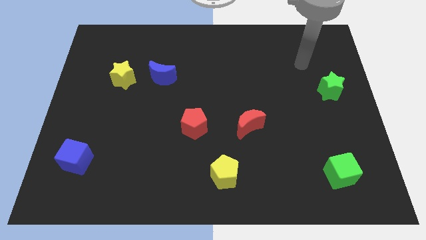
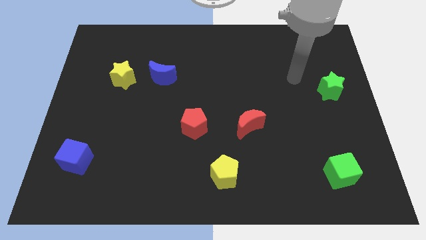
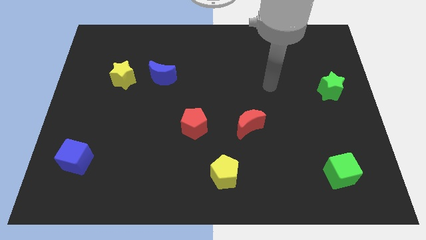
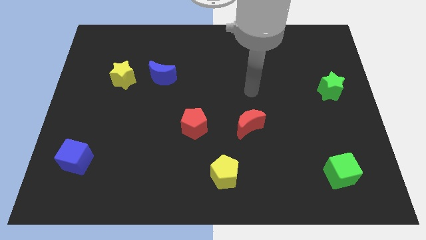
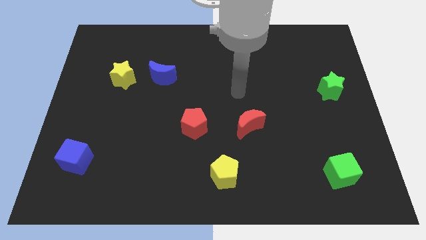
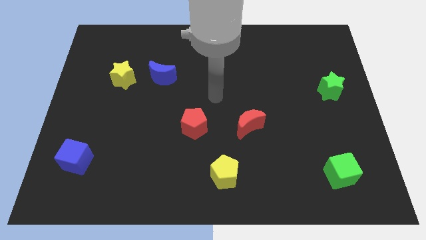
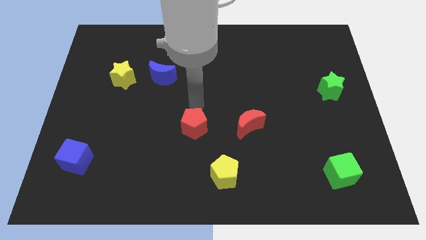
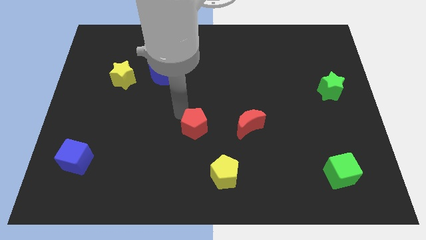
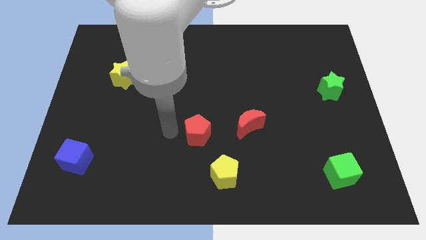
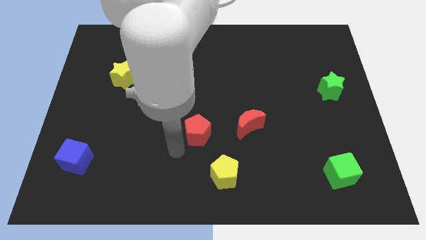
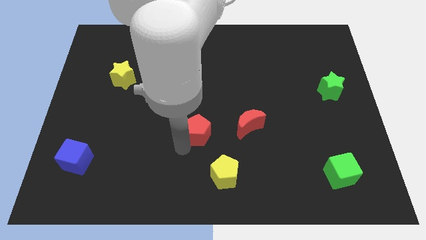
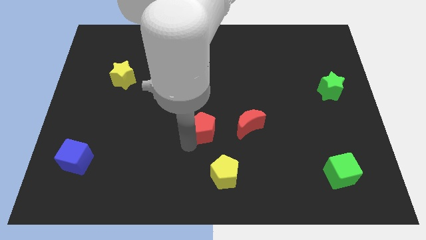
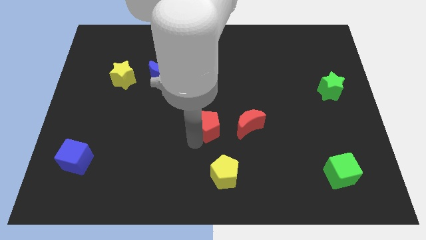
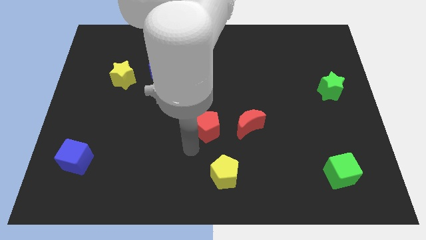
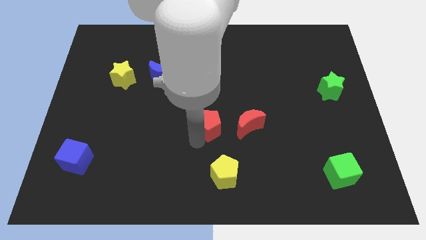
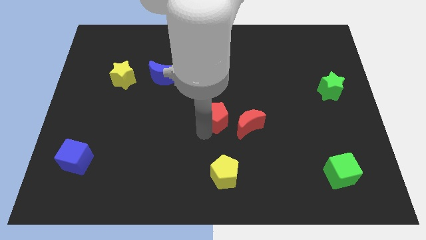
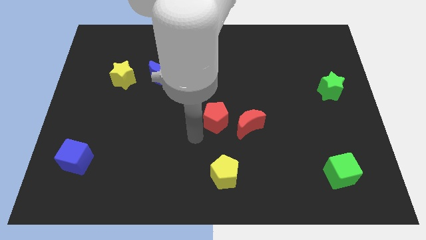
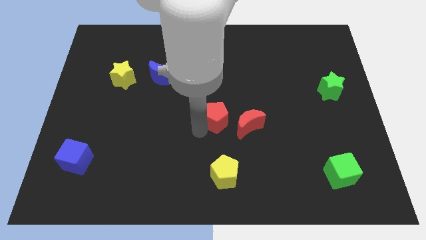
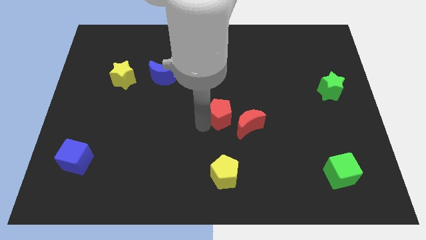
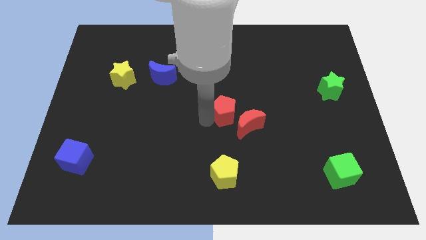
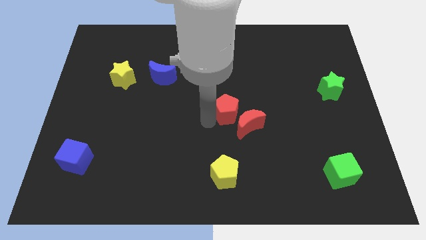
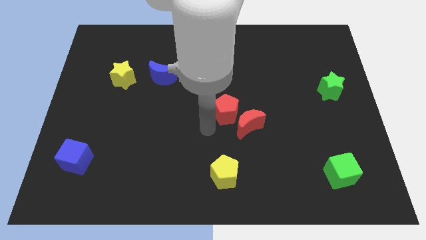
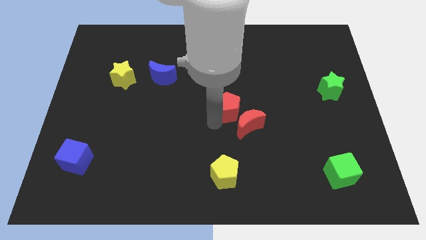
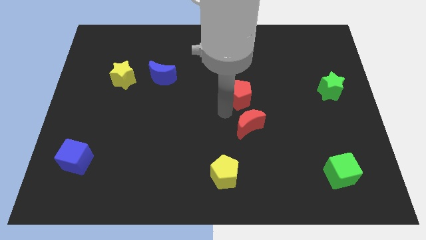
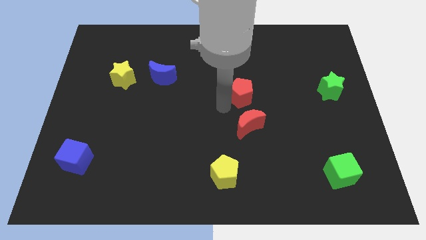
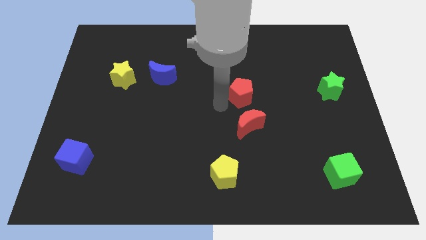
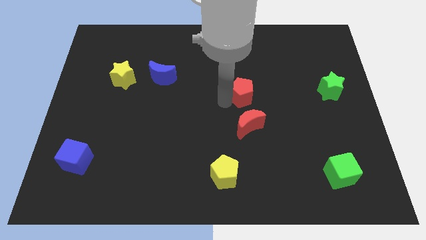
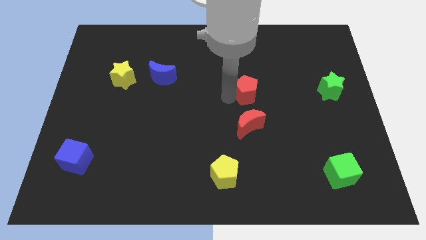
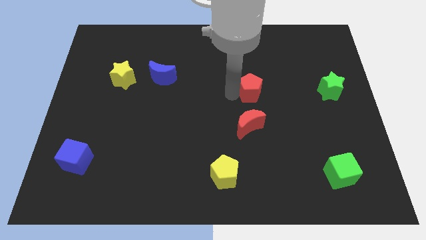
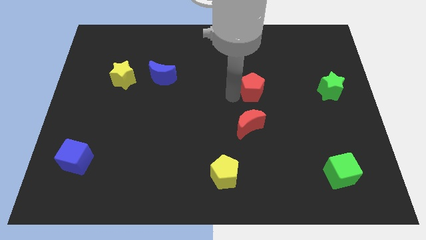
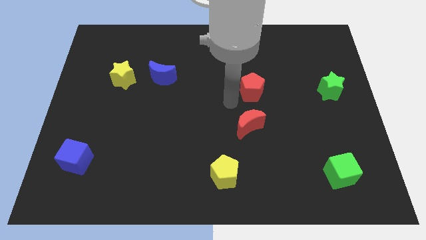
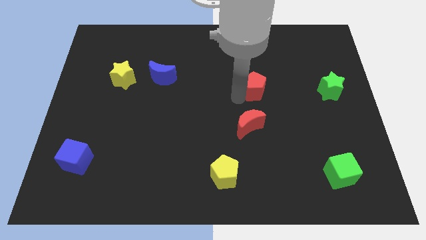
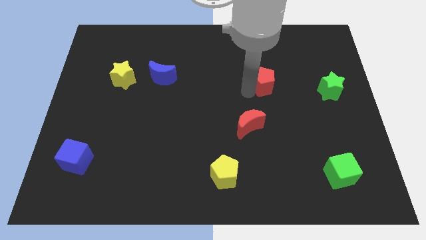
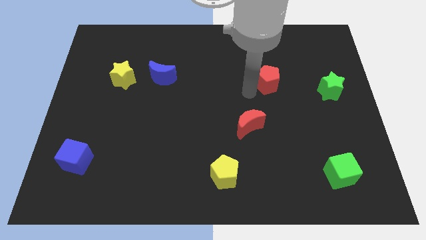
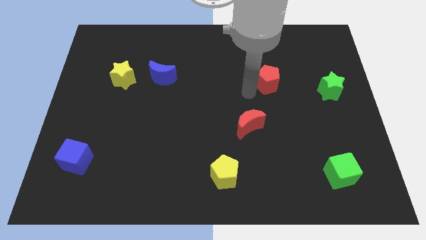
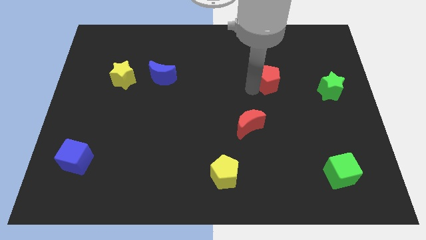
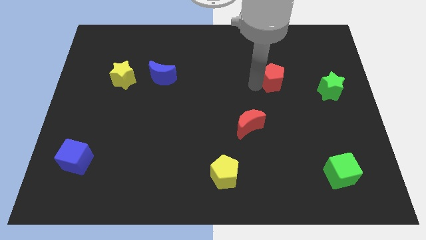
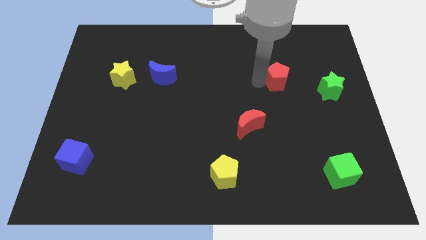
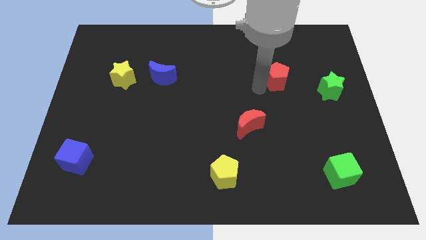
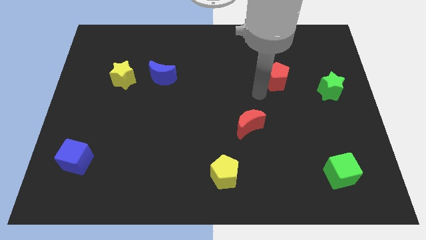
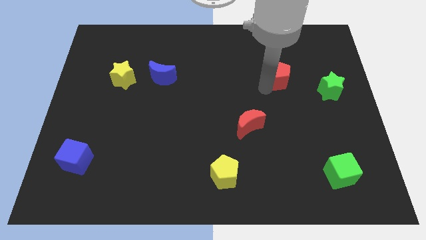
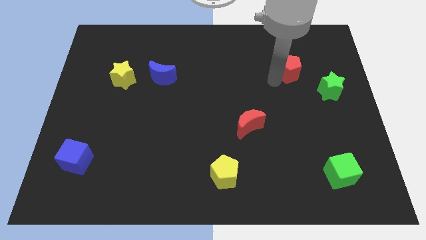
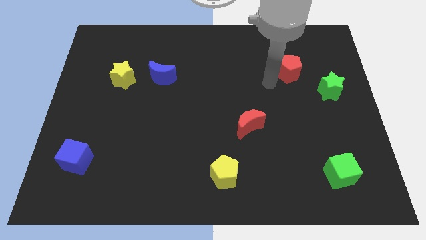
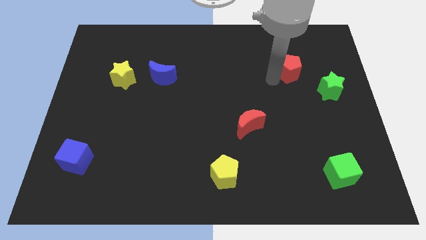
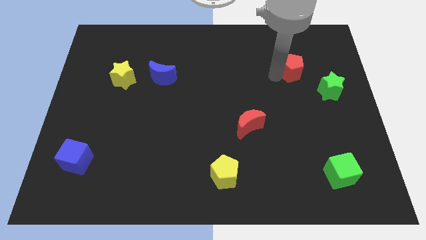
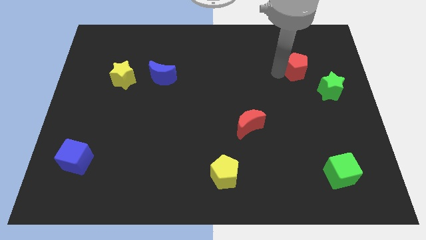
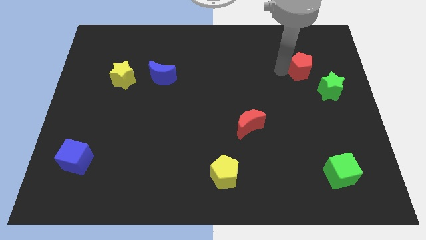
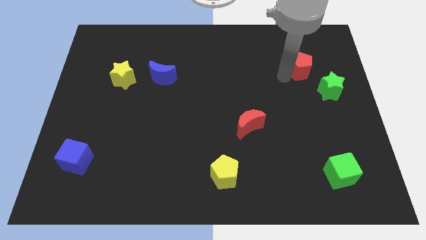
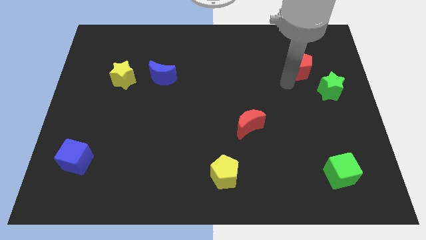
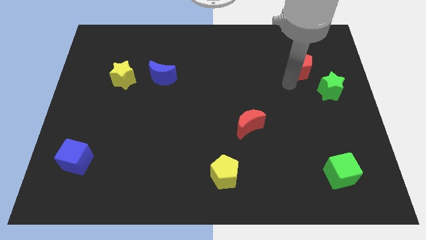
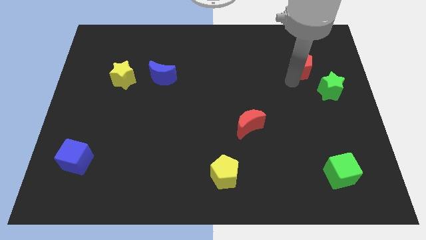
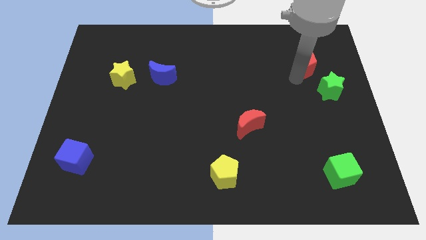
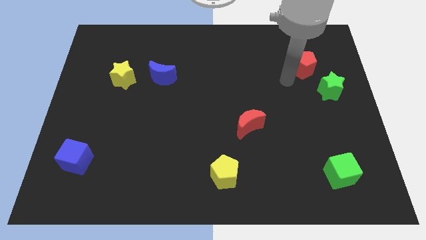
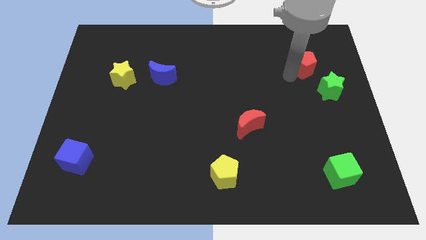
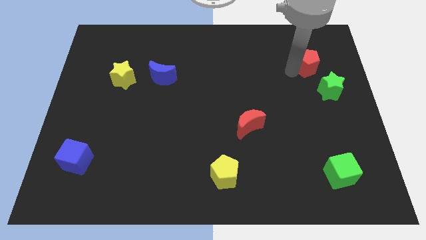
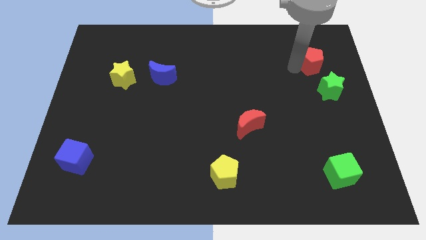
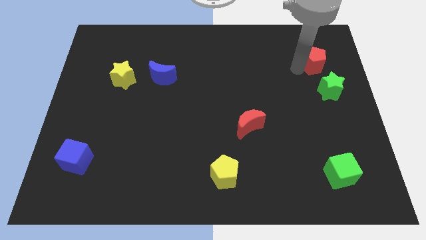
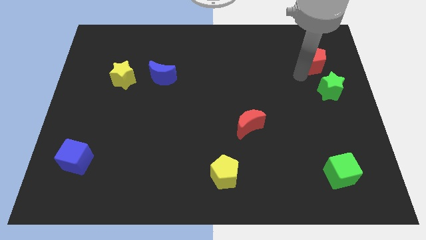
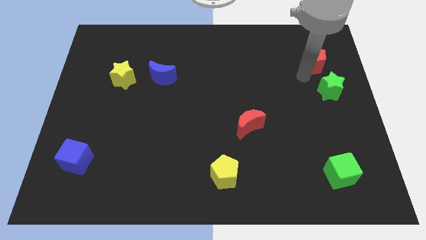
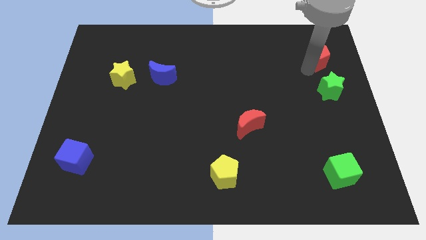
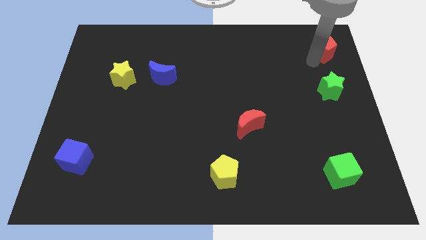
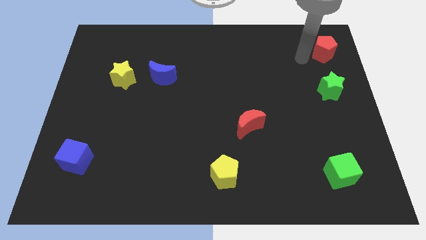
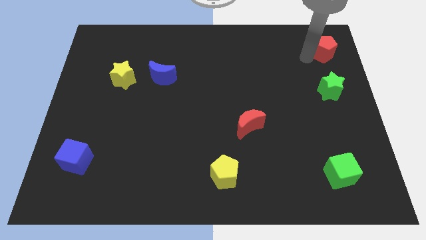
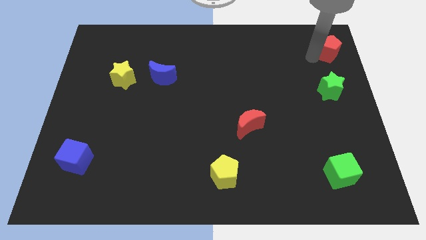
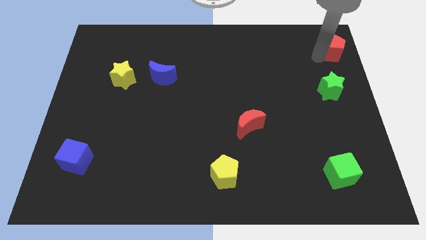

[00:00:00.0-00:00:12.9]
push the red pentagon to the top right of the board

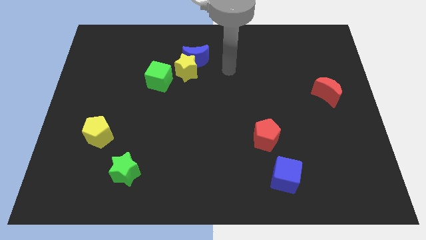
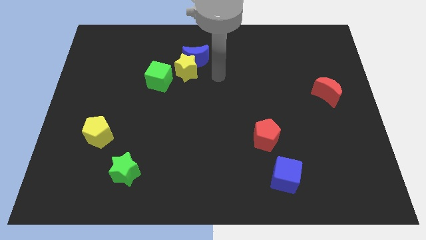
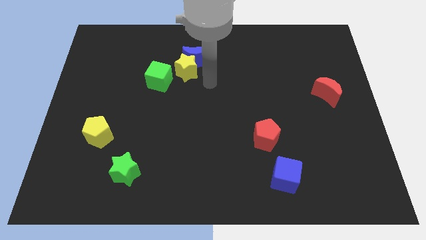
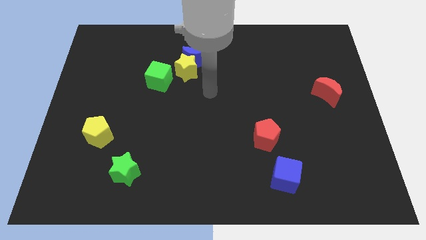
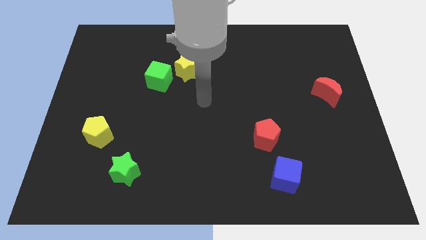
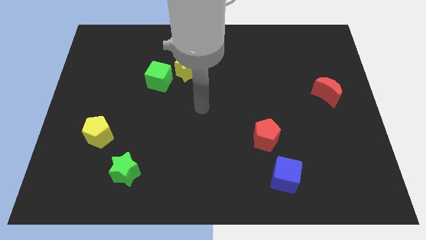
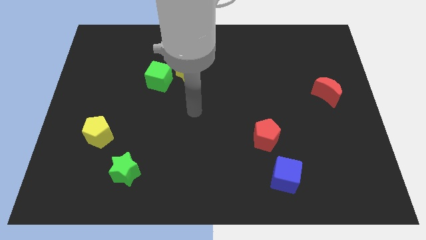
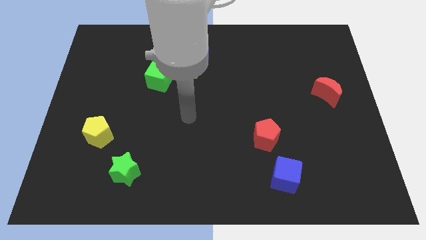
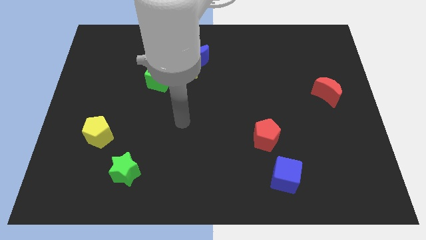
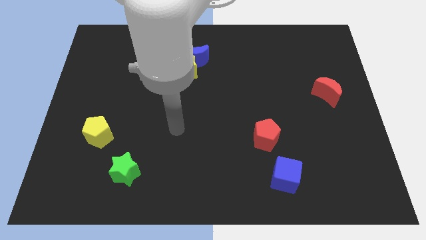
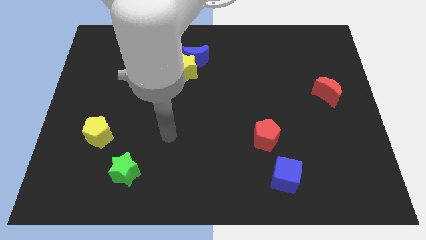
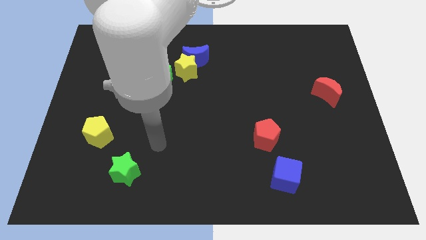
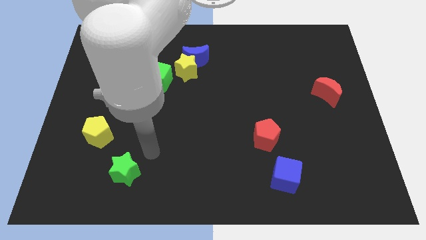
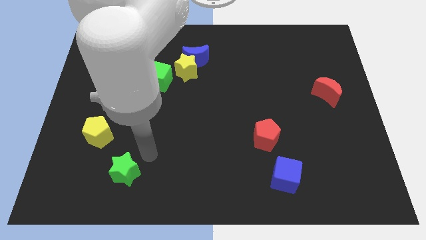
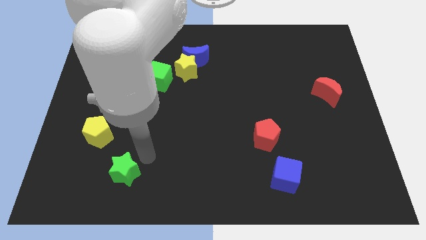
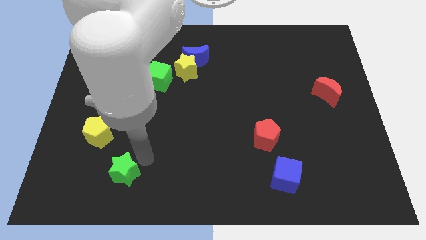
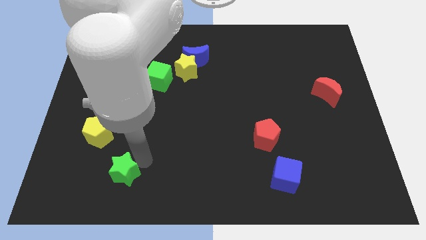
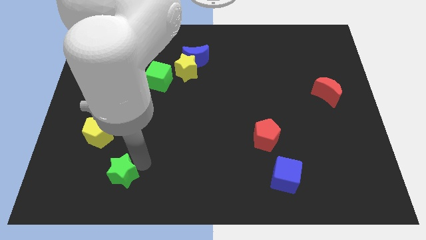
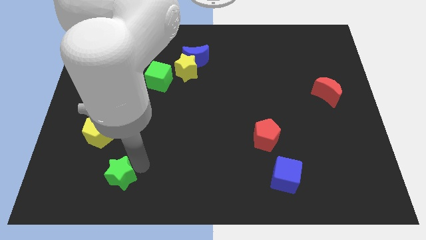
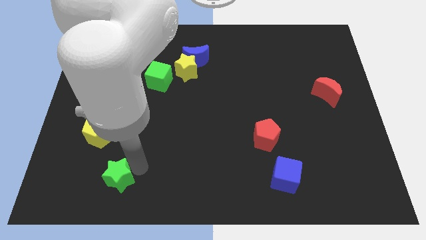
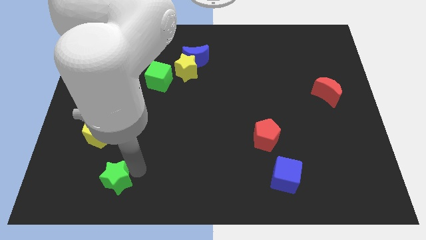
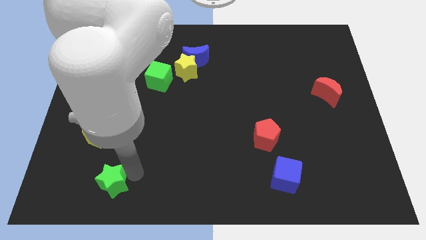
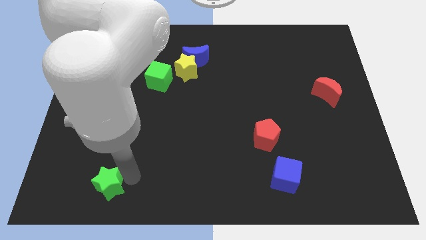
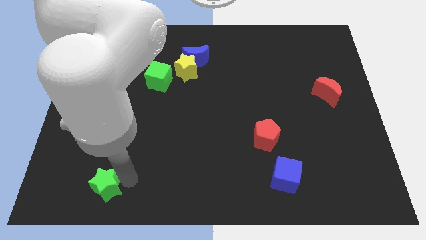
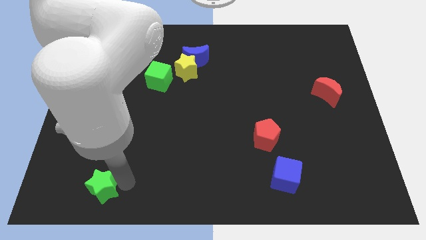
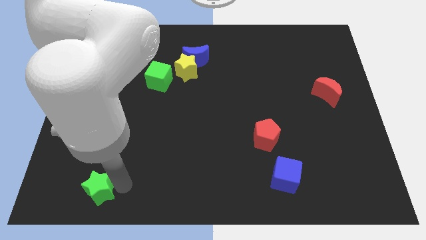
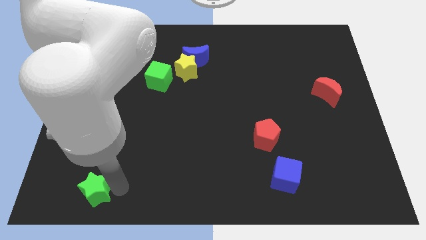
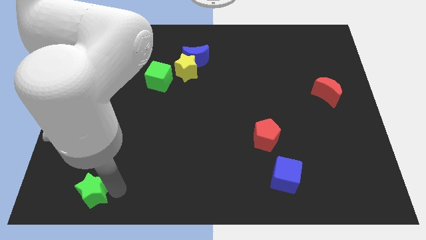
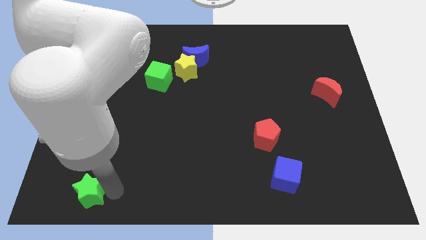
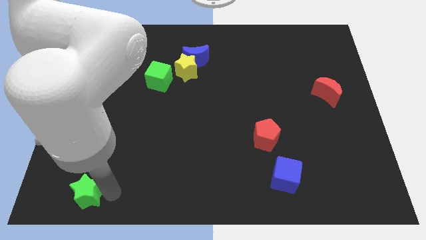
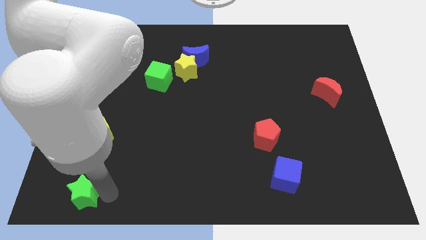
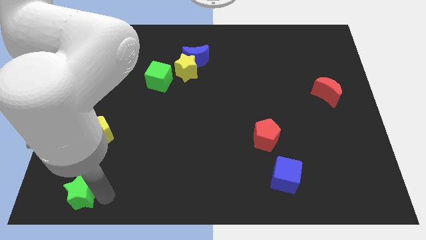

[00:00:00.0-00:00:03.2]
put the green star to the bottom left
